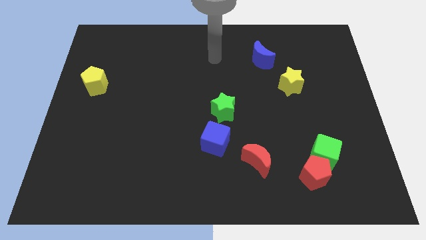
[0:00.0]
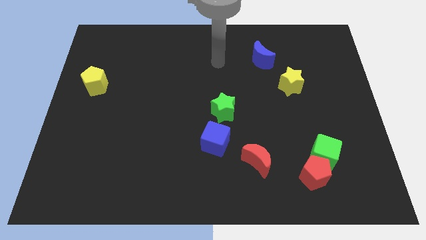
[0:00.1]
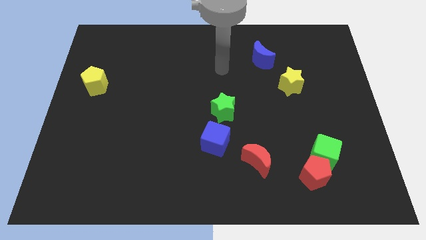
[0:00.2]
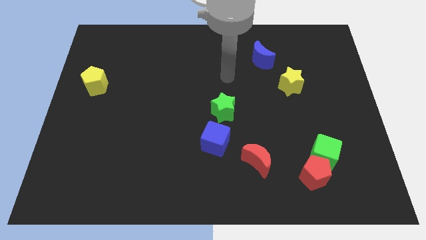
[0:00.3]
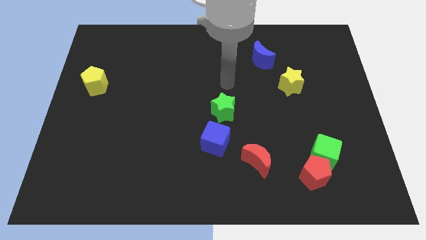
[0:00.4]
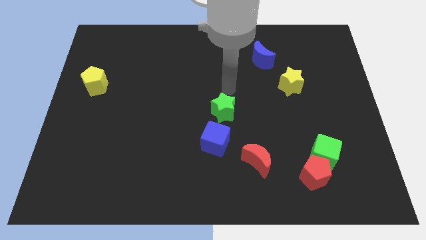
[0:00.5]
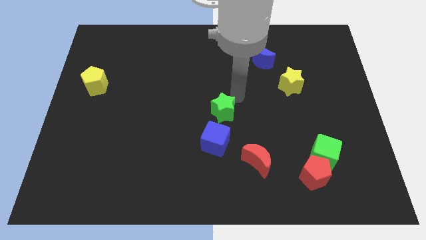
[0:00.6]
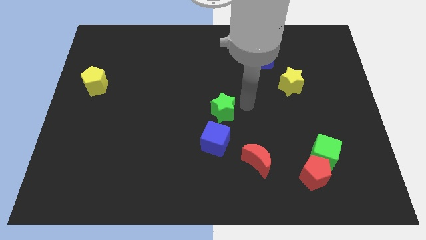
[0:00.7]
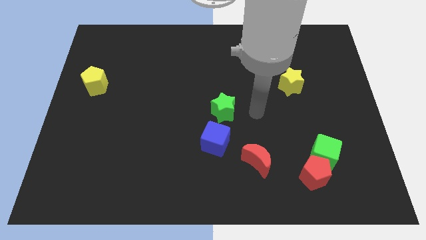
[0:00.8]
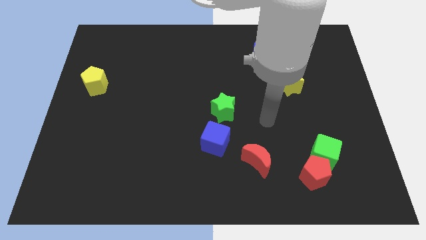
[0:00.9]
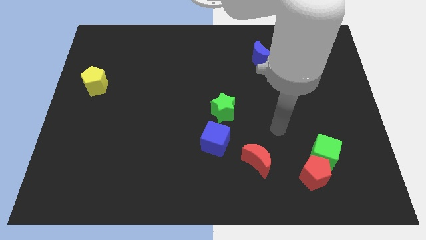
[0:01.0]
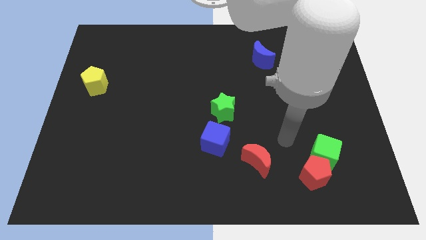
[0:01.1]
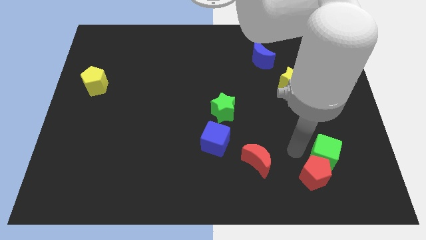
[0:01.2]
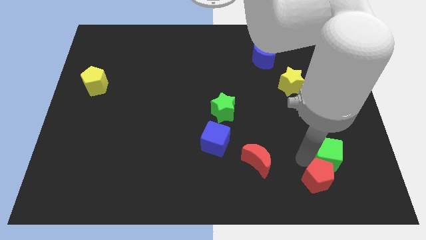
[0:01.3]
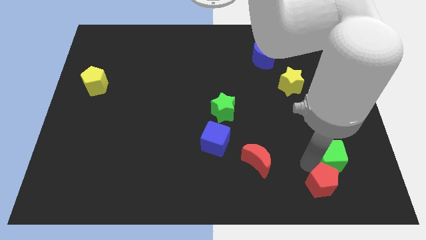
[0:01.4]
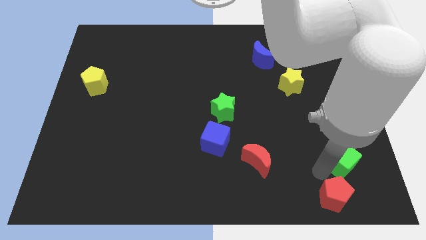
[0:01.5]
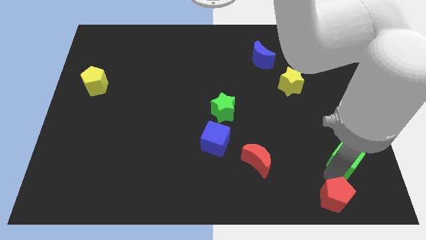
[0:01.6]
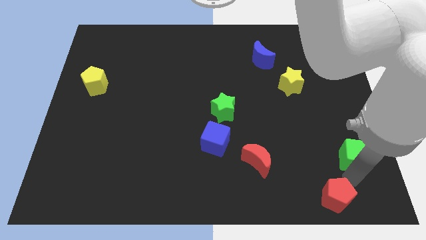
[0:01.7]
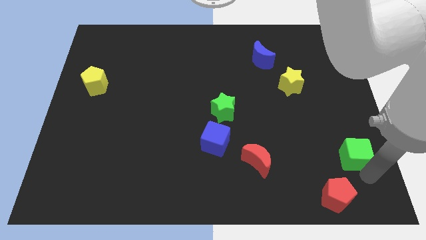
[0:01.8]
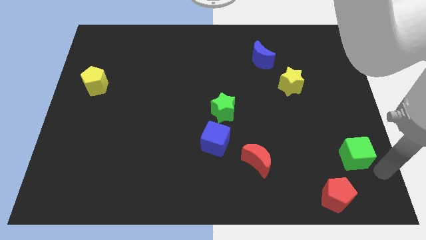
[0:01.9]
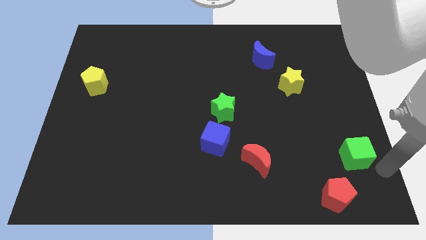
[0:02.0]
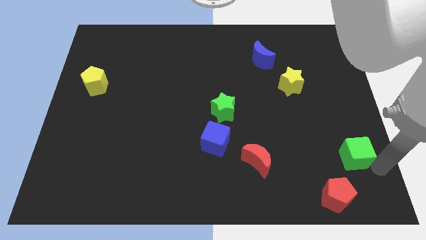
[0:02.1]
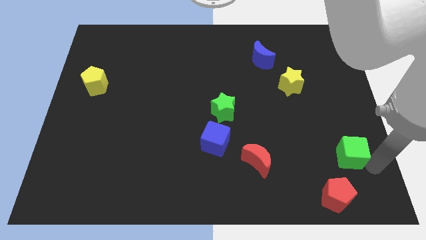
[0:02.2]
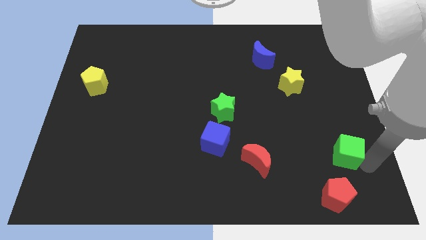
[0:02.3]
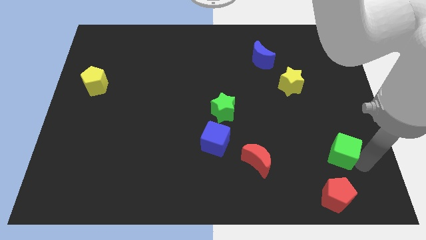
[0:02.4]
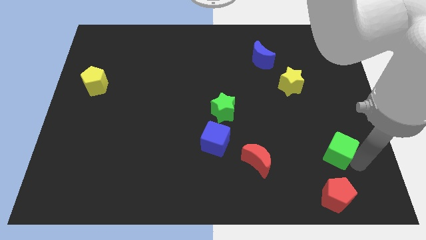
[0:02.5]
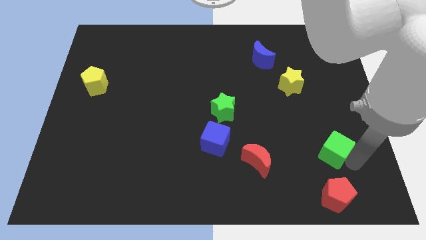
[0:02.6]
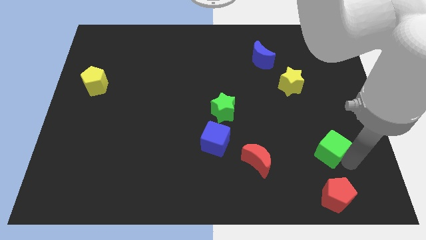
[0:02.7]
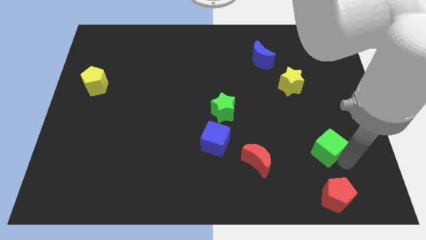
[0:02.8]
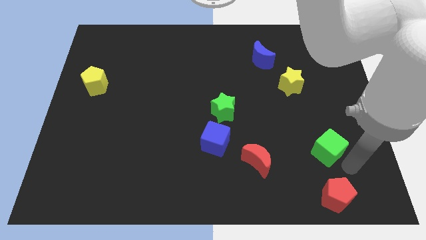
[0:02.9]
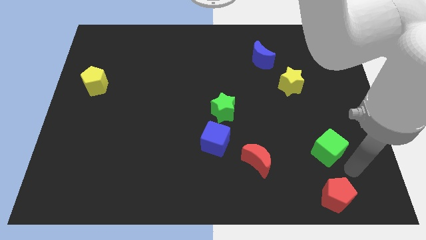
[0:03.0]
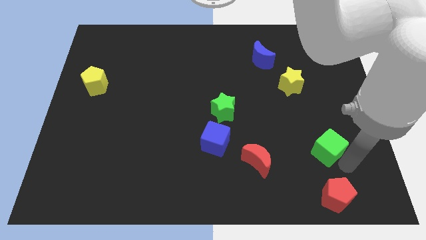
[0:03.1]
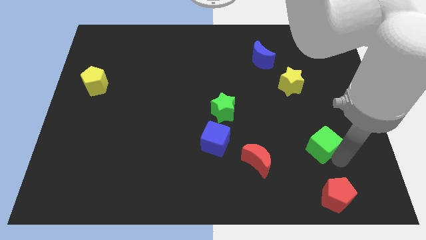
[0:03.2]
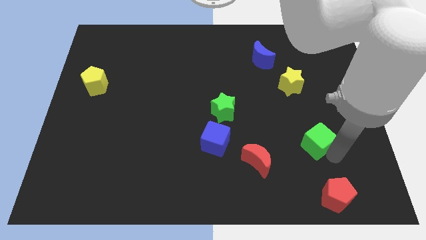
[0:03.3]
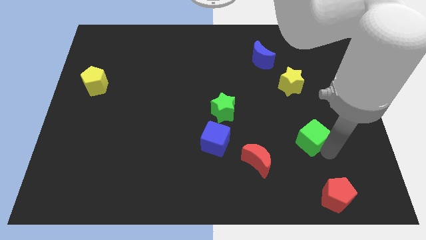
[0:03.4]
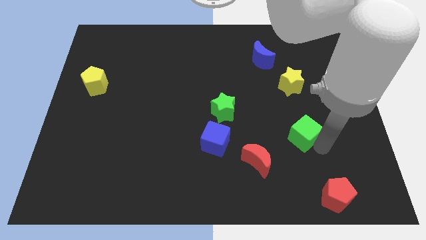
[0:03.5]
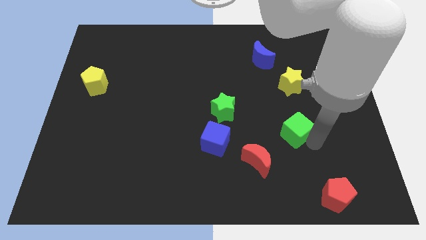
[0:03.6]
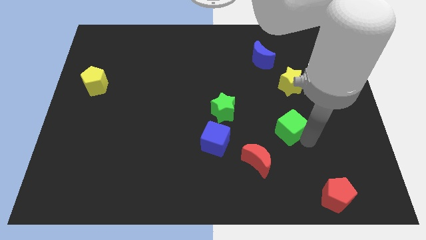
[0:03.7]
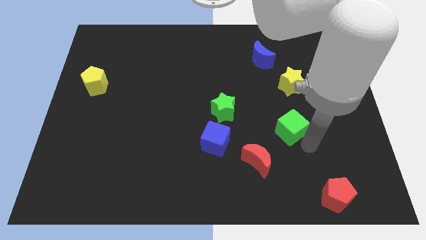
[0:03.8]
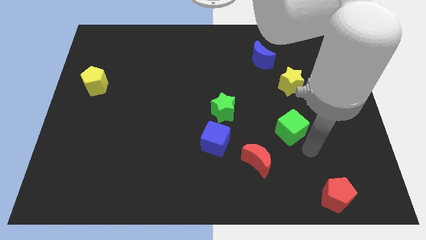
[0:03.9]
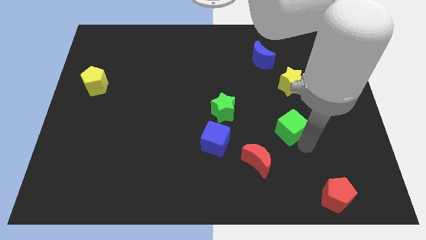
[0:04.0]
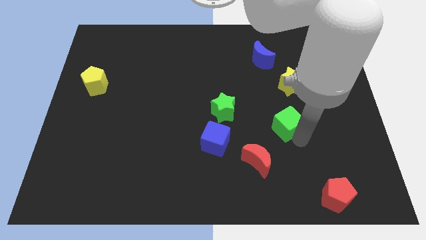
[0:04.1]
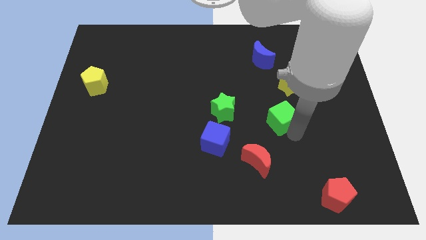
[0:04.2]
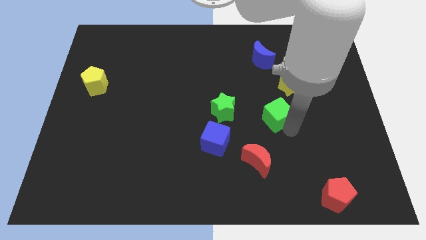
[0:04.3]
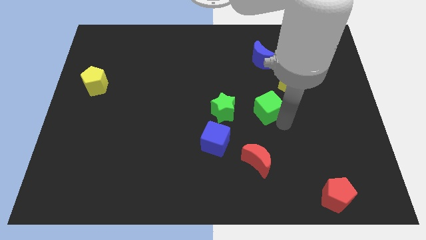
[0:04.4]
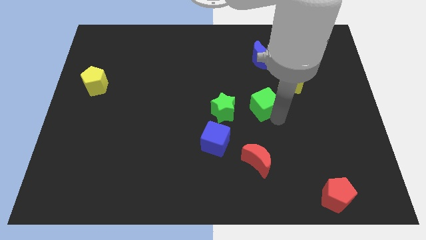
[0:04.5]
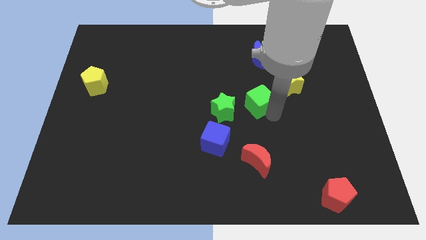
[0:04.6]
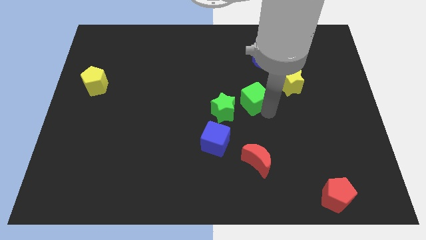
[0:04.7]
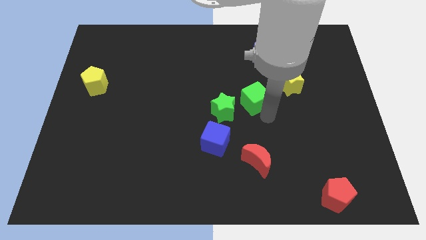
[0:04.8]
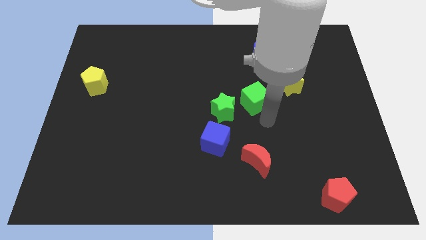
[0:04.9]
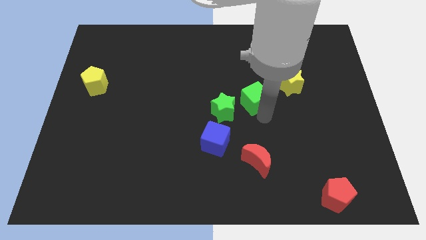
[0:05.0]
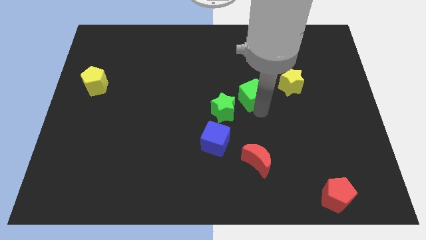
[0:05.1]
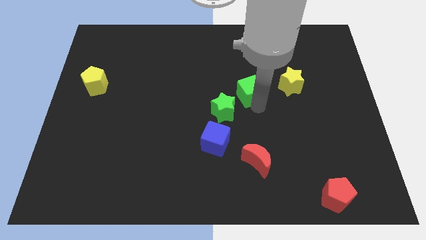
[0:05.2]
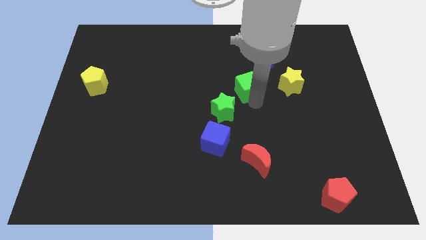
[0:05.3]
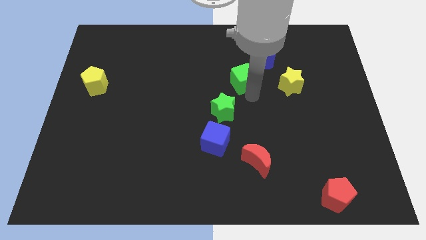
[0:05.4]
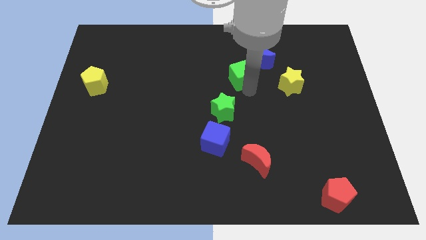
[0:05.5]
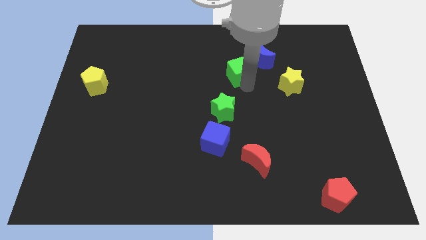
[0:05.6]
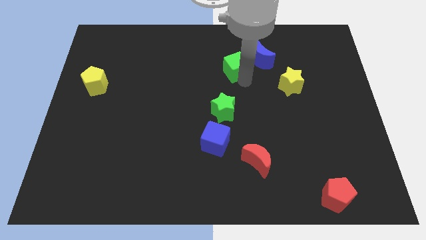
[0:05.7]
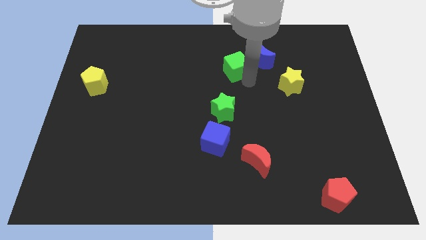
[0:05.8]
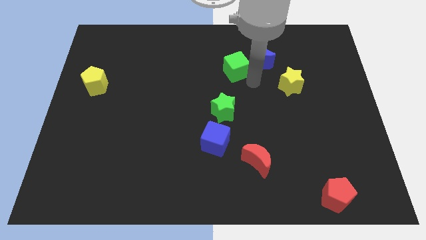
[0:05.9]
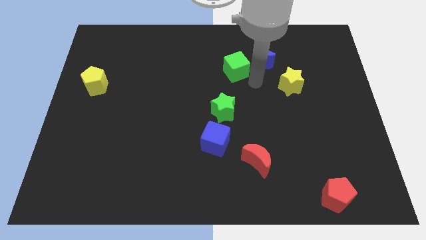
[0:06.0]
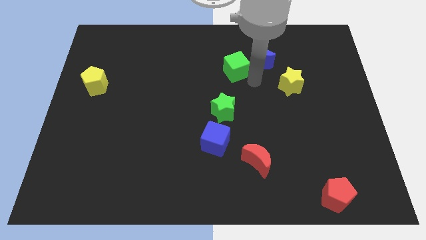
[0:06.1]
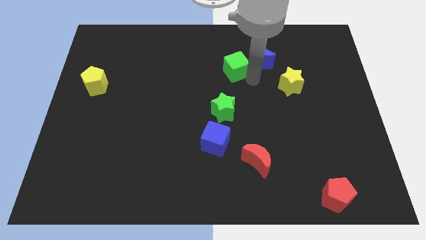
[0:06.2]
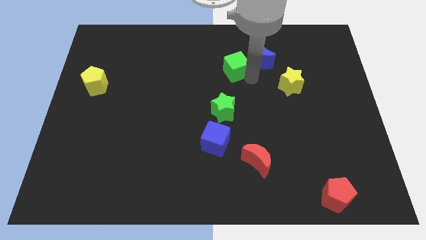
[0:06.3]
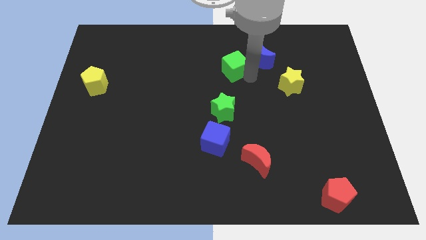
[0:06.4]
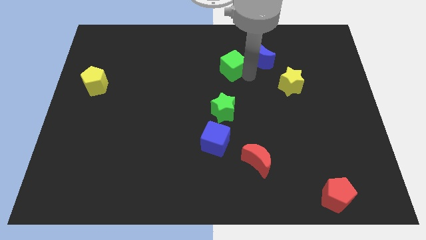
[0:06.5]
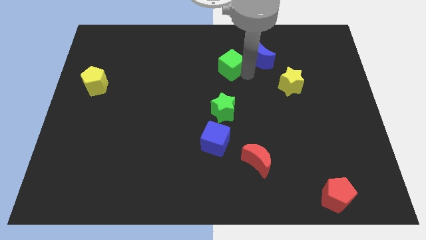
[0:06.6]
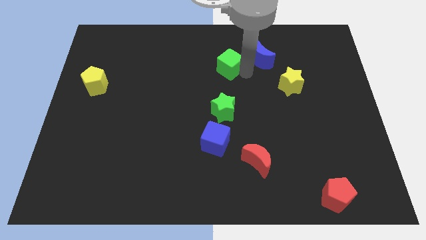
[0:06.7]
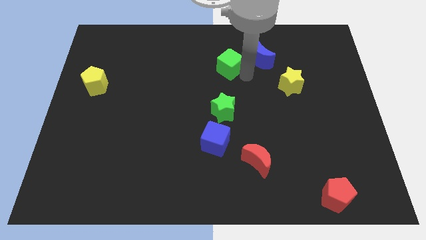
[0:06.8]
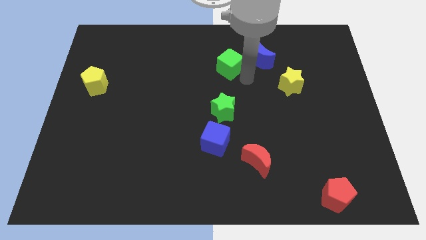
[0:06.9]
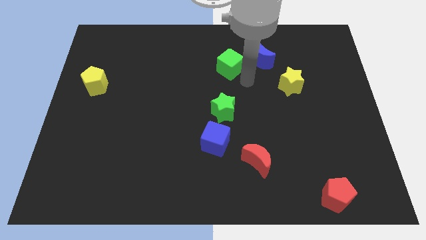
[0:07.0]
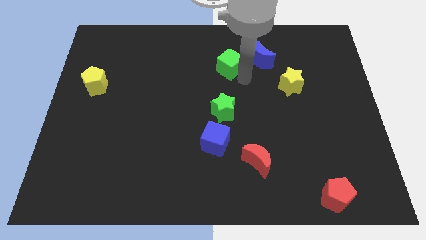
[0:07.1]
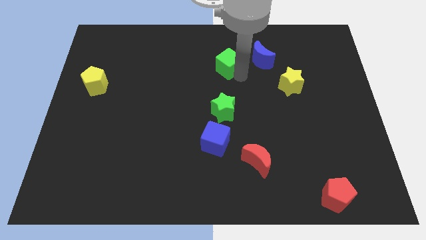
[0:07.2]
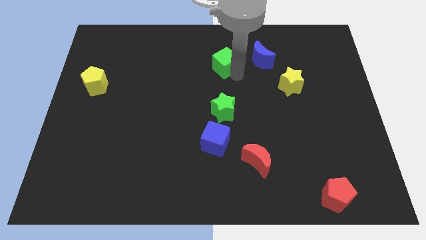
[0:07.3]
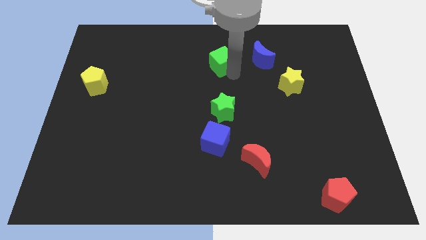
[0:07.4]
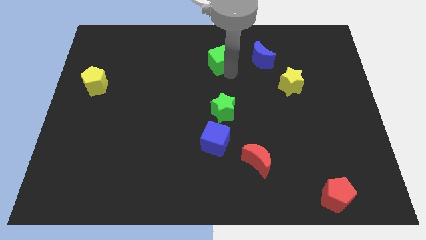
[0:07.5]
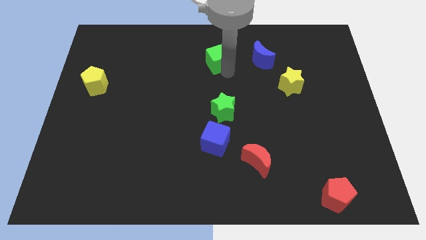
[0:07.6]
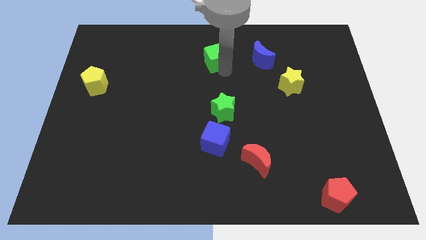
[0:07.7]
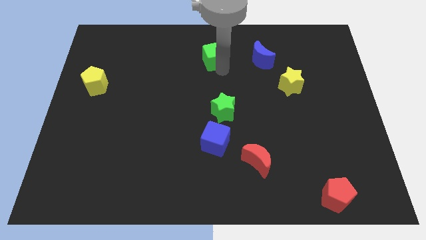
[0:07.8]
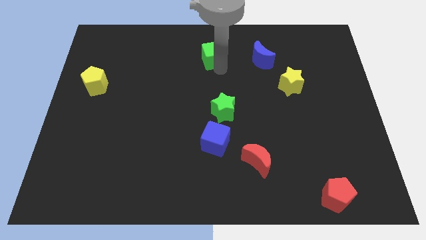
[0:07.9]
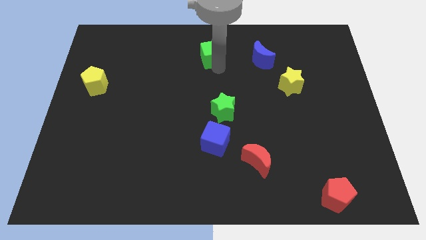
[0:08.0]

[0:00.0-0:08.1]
push the green cube to the towards your base
